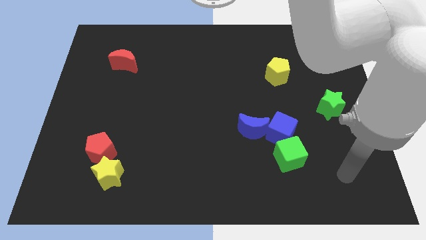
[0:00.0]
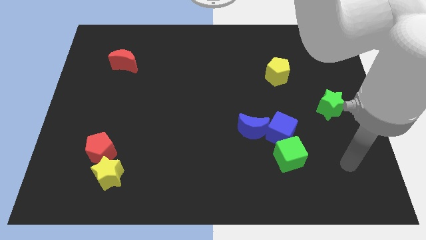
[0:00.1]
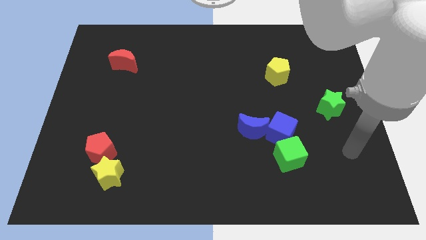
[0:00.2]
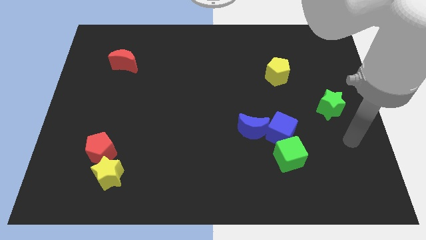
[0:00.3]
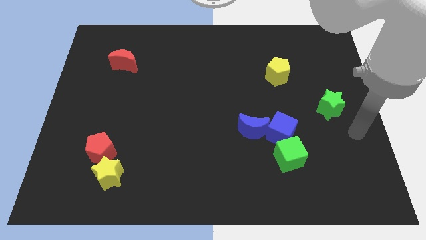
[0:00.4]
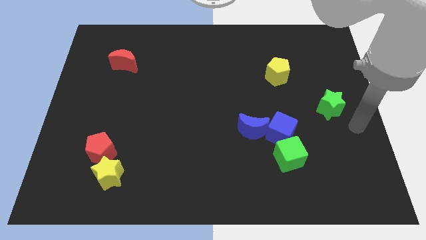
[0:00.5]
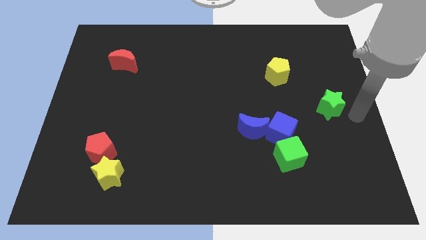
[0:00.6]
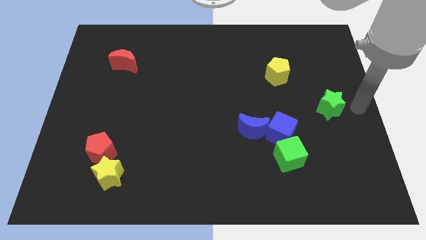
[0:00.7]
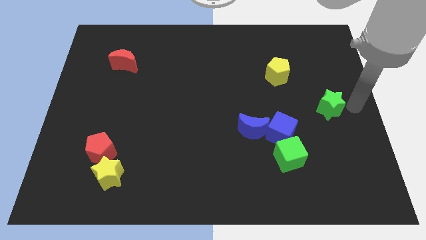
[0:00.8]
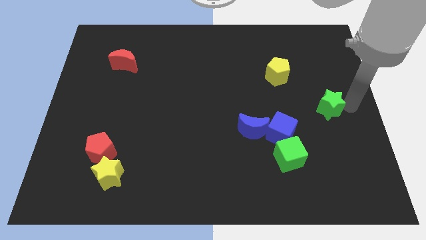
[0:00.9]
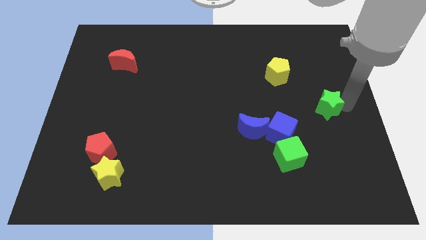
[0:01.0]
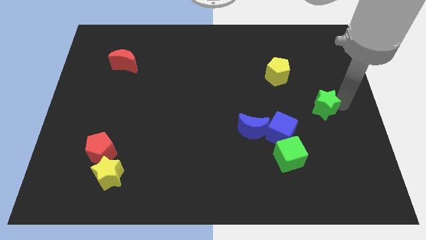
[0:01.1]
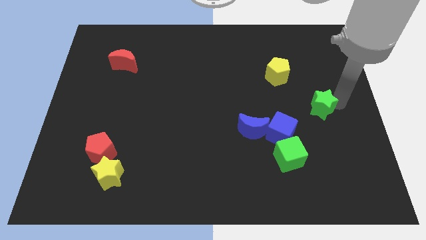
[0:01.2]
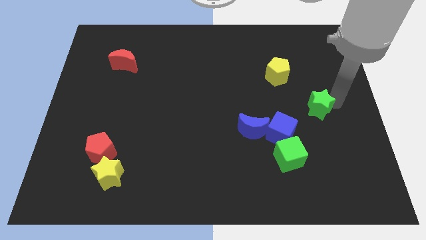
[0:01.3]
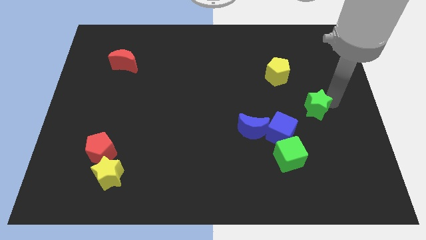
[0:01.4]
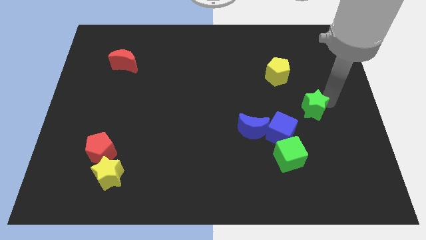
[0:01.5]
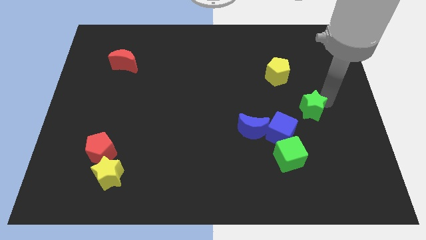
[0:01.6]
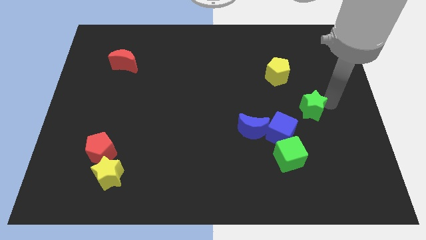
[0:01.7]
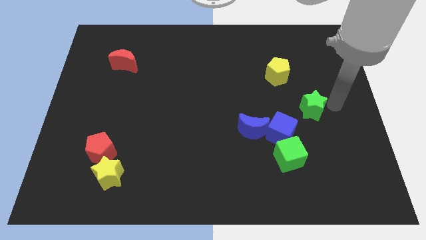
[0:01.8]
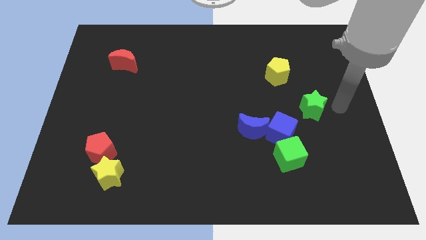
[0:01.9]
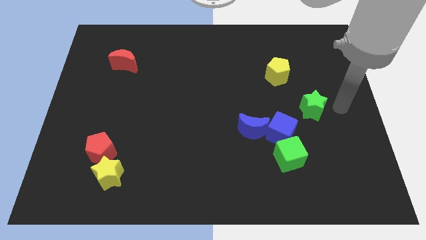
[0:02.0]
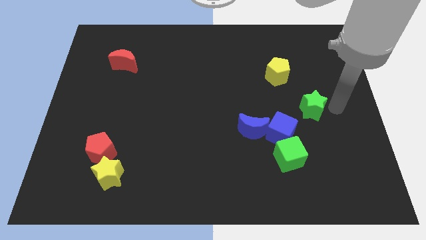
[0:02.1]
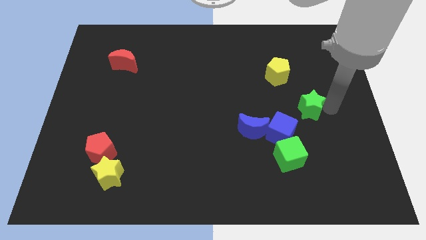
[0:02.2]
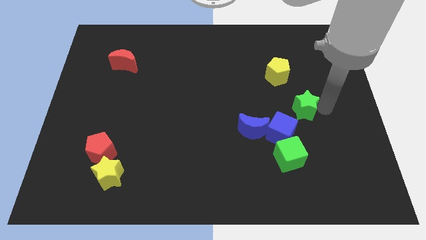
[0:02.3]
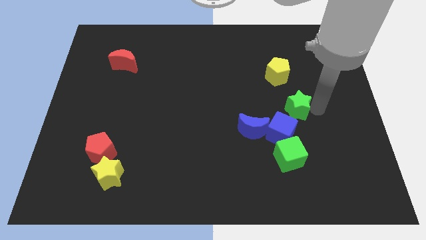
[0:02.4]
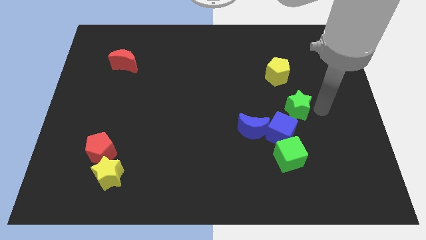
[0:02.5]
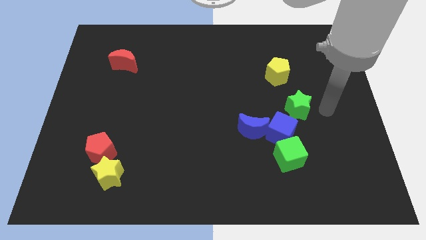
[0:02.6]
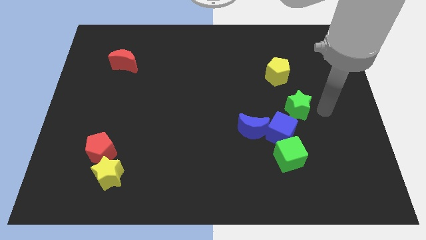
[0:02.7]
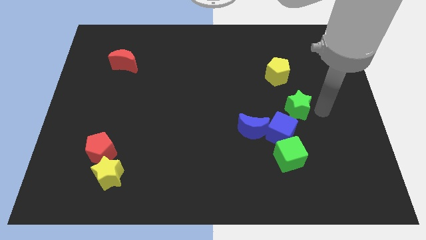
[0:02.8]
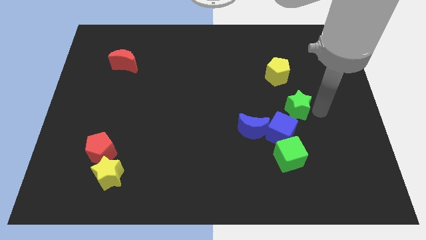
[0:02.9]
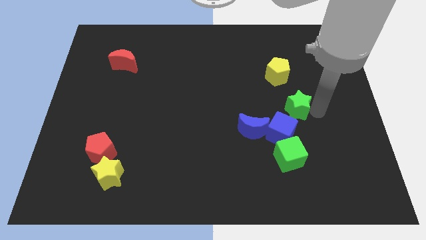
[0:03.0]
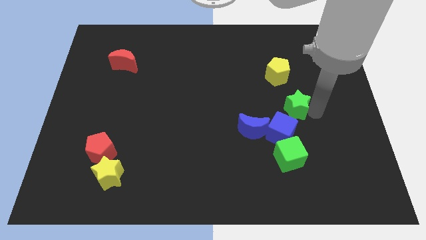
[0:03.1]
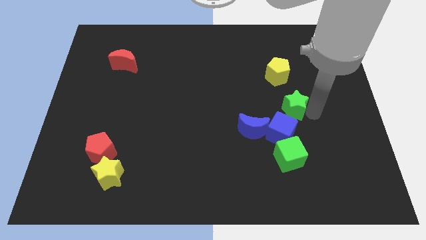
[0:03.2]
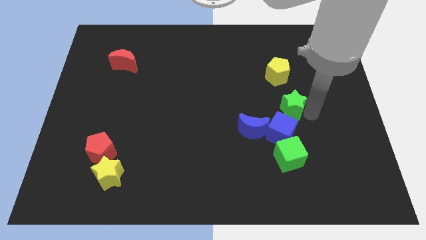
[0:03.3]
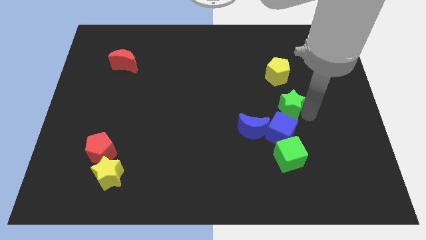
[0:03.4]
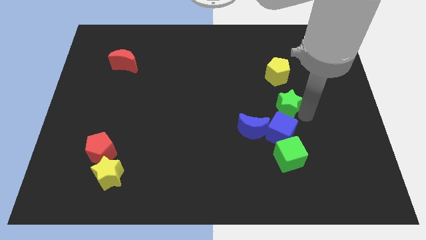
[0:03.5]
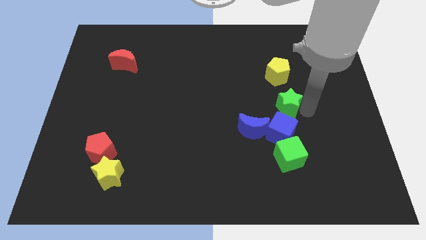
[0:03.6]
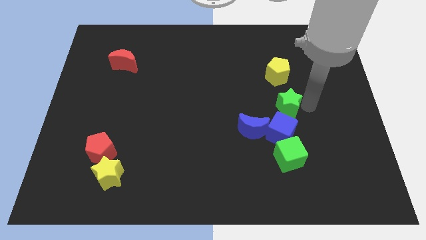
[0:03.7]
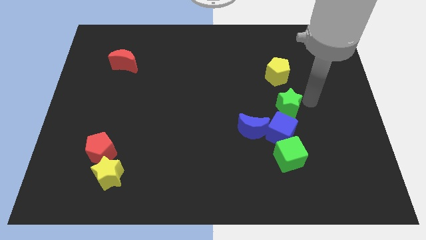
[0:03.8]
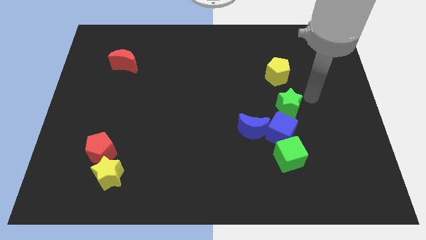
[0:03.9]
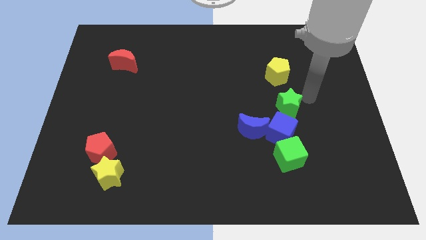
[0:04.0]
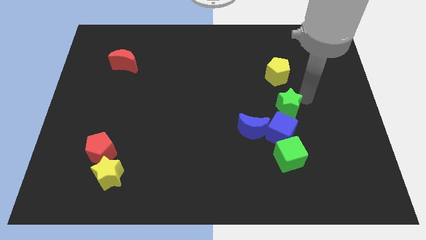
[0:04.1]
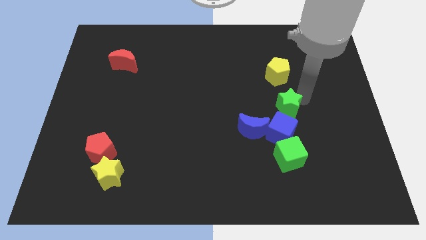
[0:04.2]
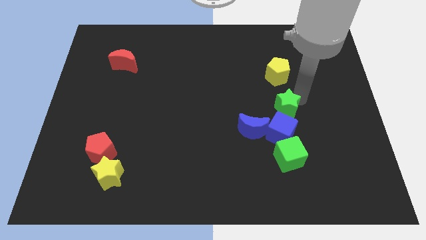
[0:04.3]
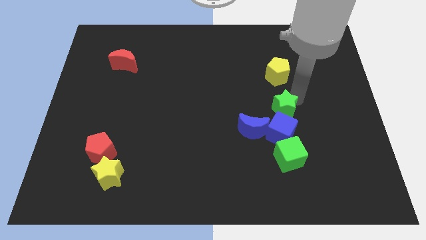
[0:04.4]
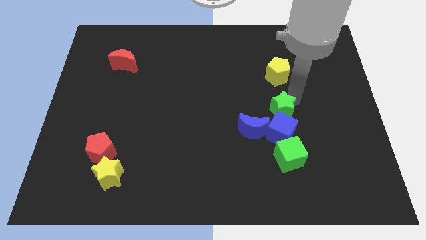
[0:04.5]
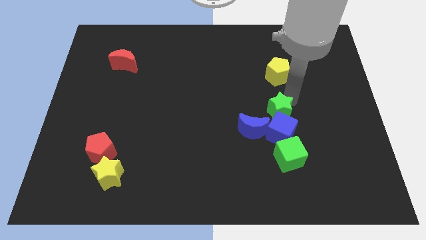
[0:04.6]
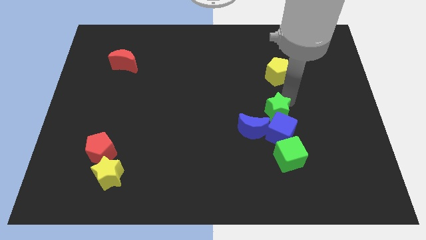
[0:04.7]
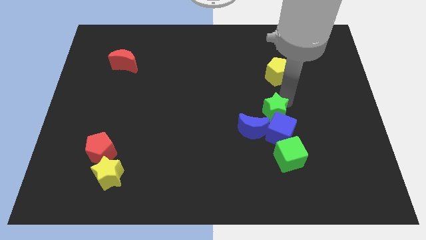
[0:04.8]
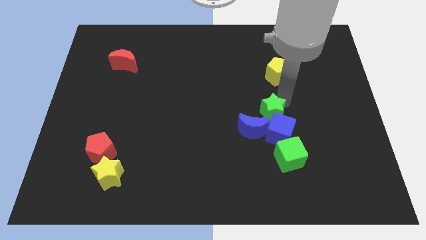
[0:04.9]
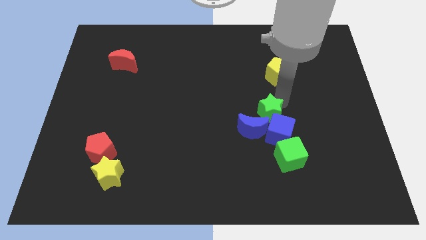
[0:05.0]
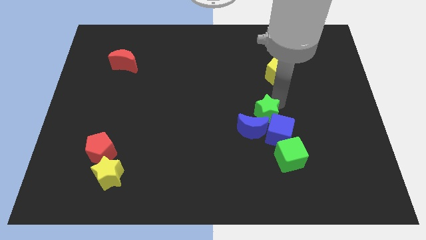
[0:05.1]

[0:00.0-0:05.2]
push the green star next to the blue moon

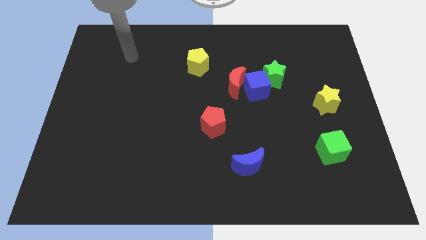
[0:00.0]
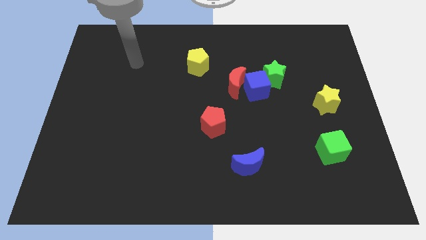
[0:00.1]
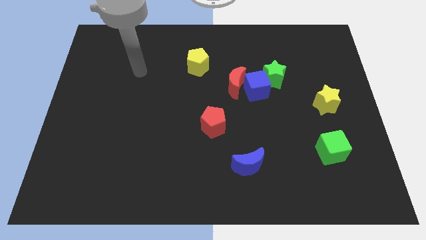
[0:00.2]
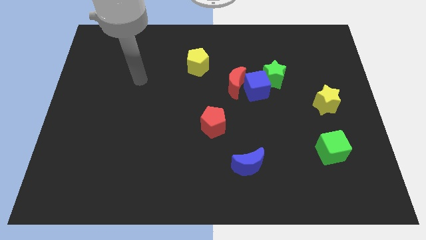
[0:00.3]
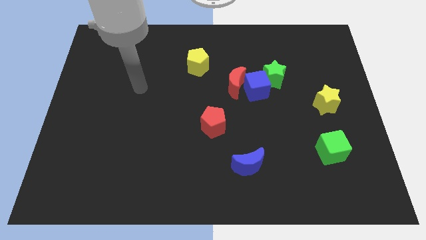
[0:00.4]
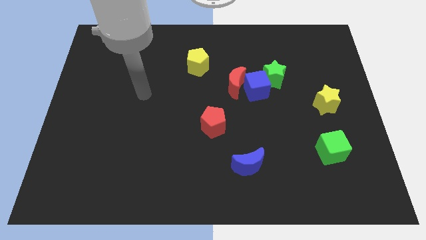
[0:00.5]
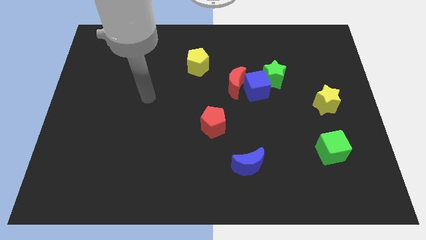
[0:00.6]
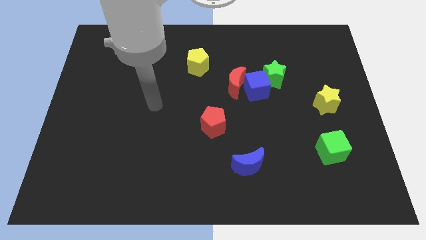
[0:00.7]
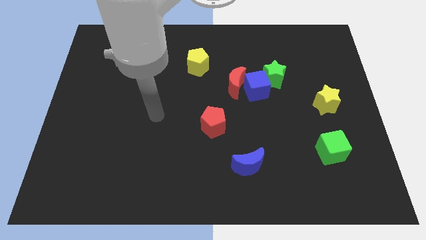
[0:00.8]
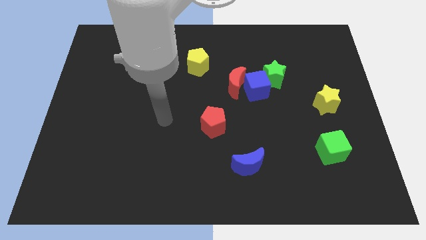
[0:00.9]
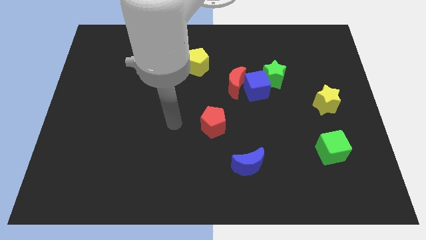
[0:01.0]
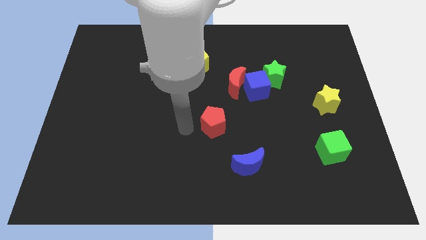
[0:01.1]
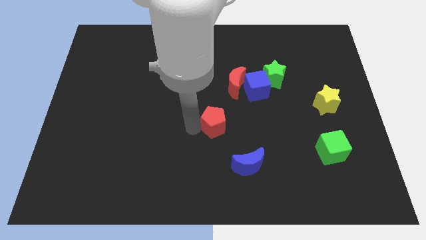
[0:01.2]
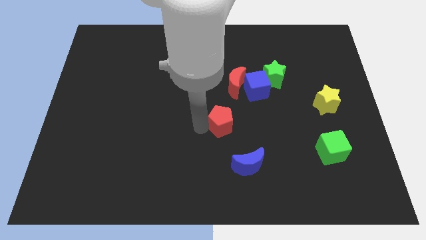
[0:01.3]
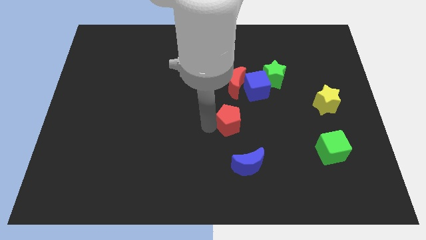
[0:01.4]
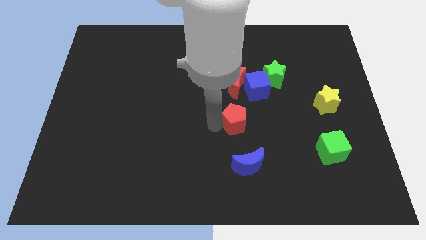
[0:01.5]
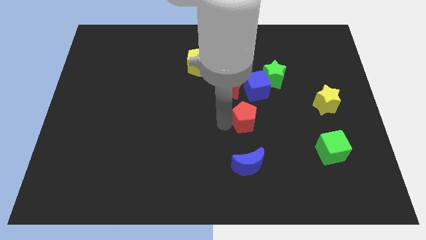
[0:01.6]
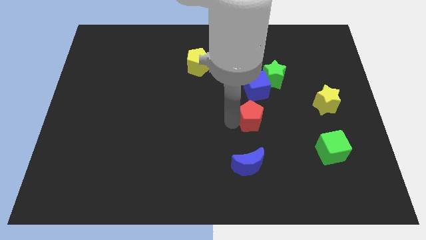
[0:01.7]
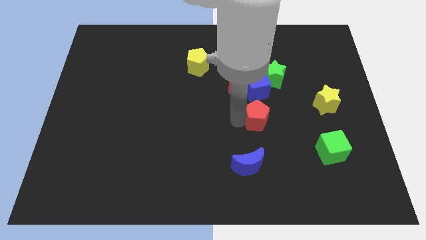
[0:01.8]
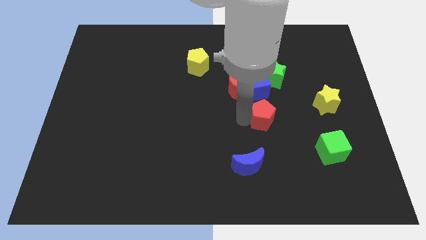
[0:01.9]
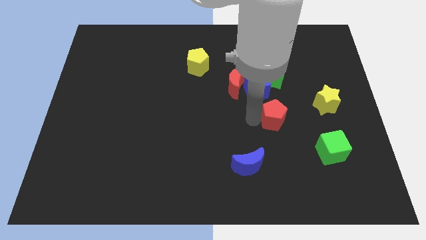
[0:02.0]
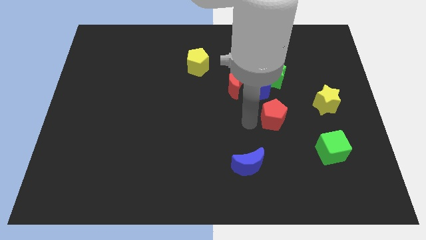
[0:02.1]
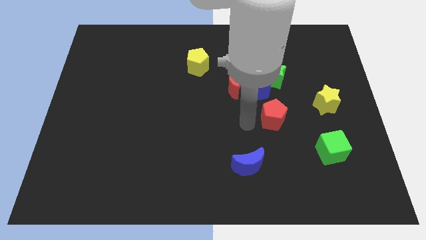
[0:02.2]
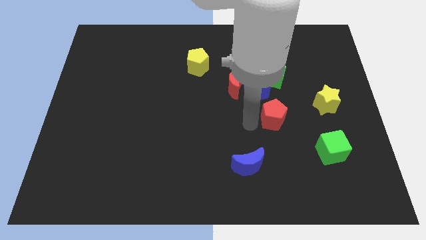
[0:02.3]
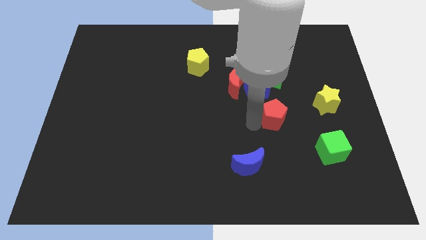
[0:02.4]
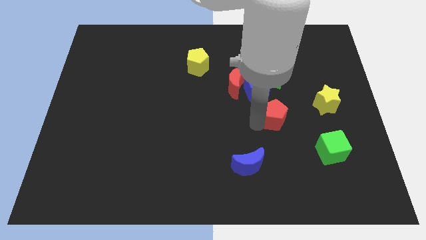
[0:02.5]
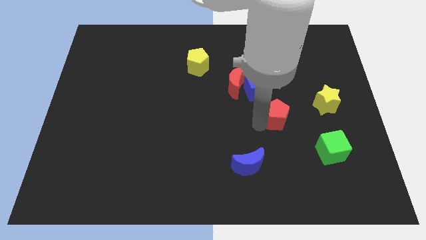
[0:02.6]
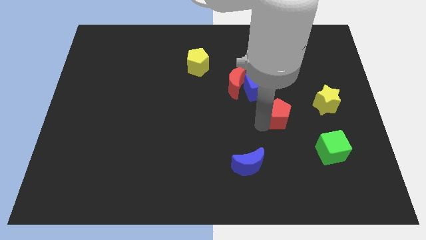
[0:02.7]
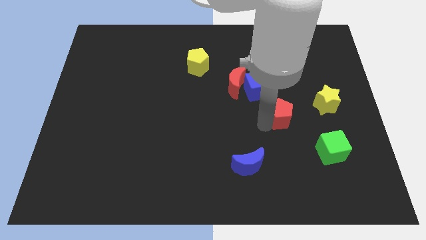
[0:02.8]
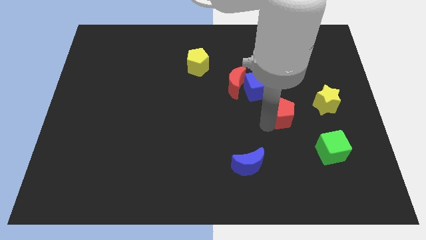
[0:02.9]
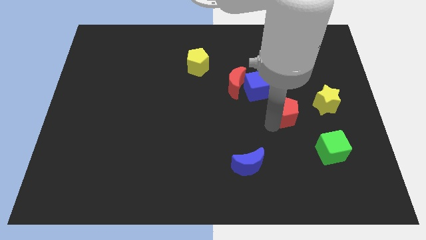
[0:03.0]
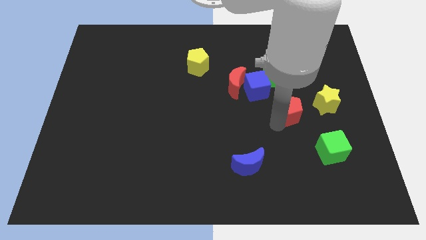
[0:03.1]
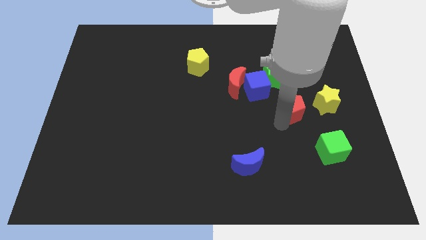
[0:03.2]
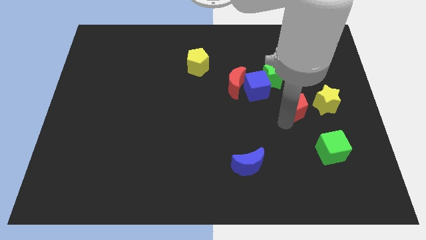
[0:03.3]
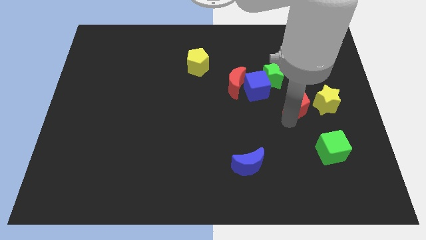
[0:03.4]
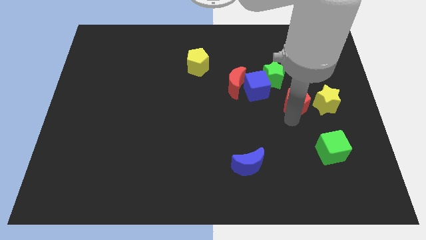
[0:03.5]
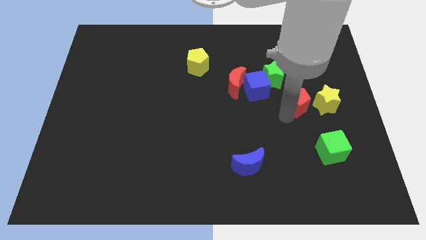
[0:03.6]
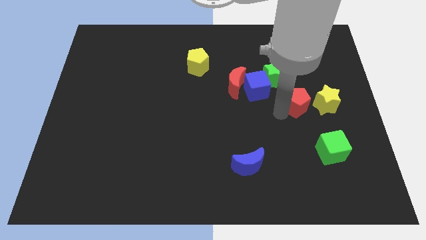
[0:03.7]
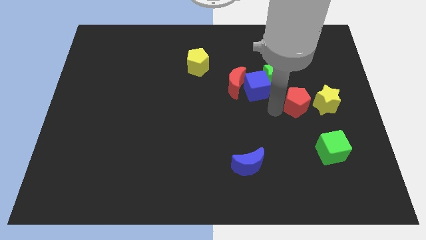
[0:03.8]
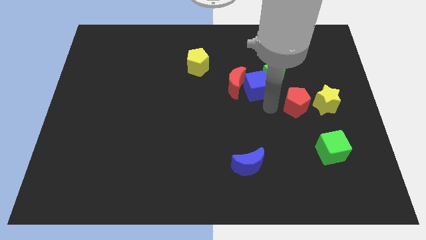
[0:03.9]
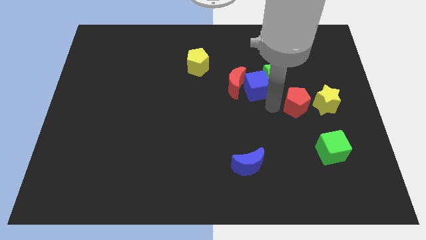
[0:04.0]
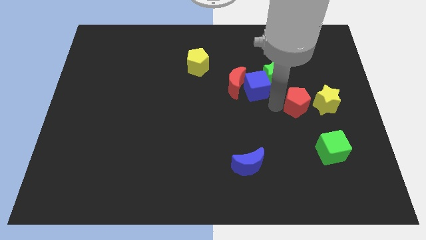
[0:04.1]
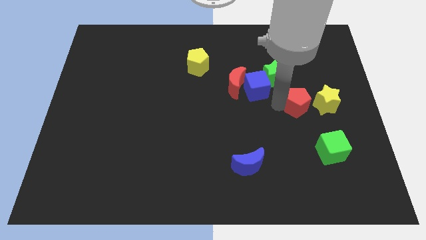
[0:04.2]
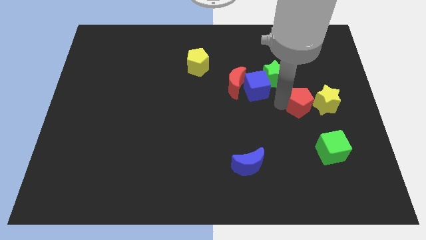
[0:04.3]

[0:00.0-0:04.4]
put the red pentagon to the yellow star
